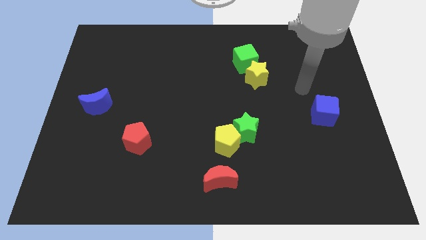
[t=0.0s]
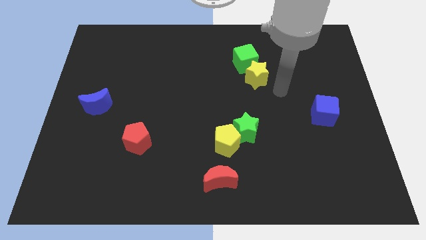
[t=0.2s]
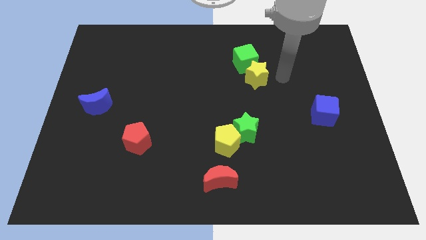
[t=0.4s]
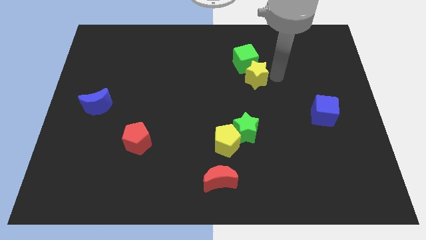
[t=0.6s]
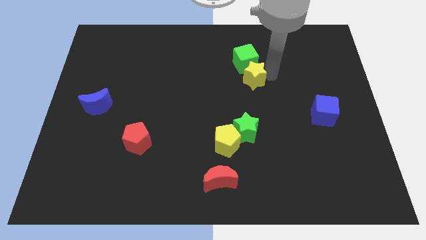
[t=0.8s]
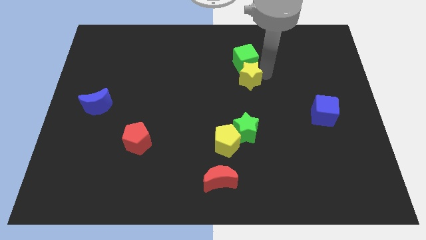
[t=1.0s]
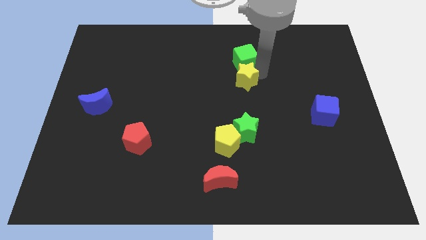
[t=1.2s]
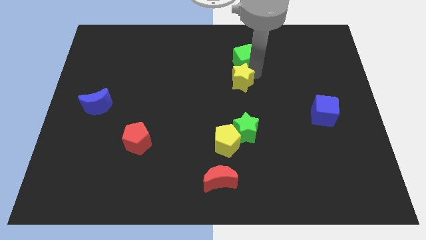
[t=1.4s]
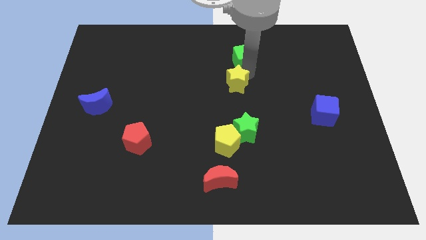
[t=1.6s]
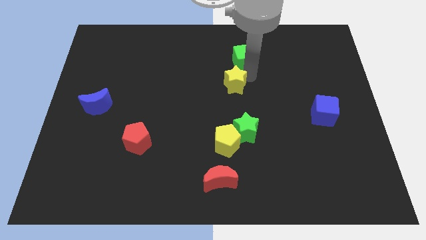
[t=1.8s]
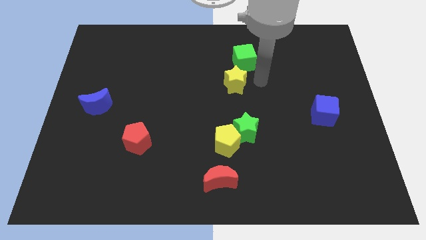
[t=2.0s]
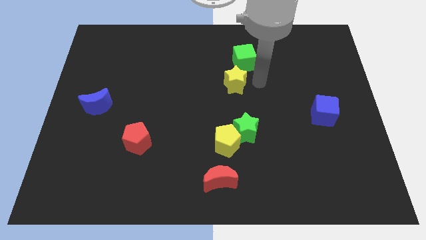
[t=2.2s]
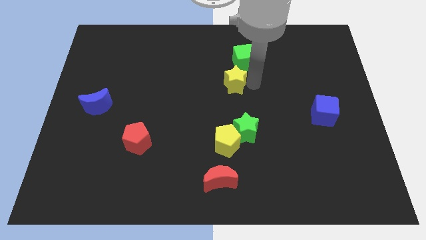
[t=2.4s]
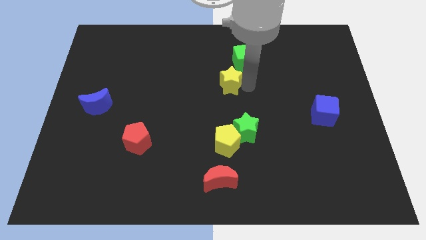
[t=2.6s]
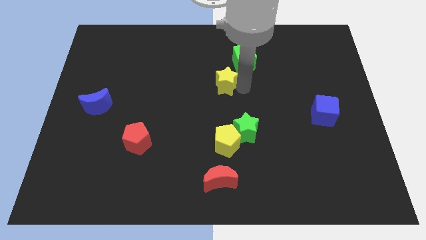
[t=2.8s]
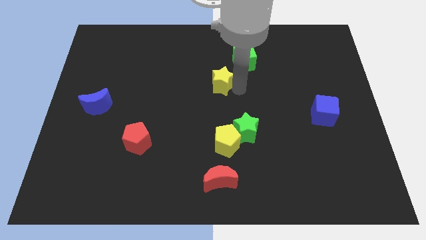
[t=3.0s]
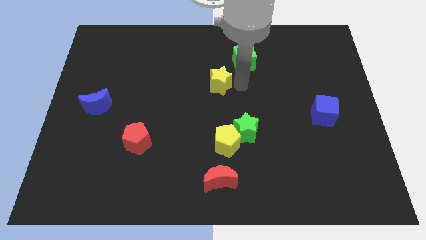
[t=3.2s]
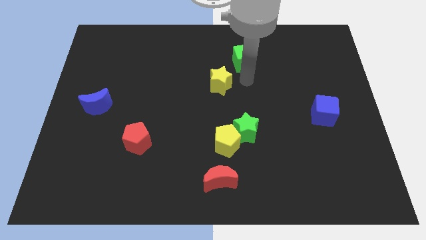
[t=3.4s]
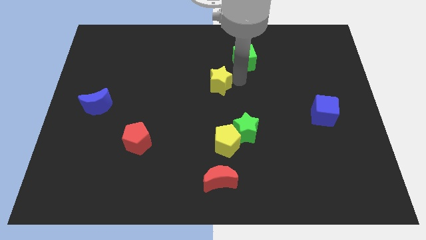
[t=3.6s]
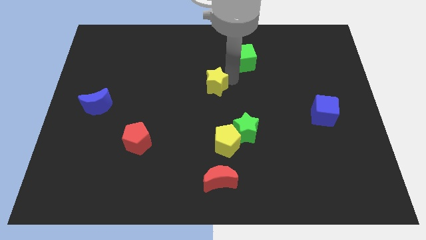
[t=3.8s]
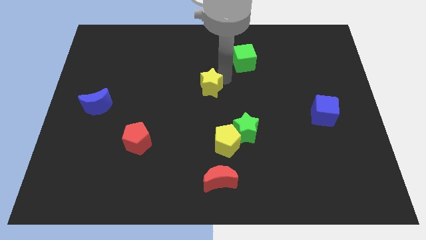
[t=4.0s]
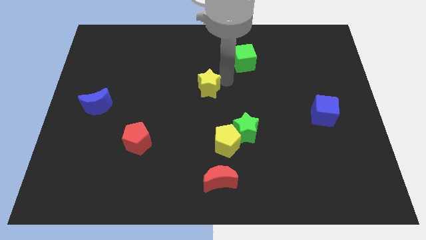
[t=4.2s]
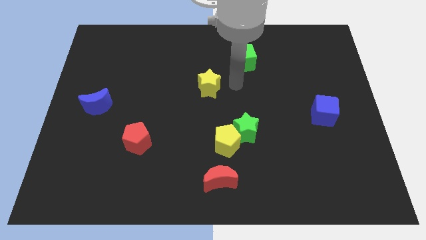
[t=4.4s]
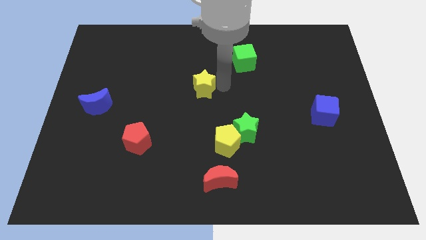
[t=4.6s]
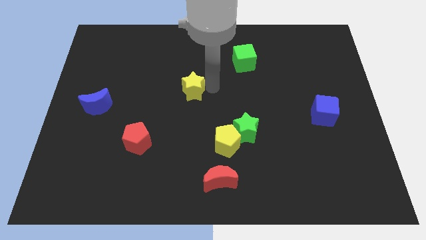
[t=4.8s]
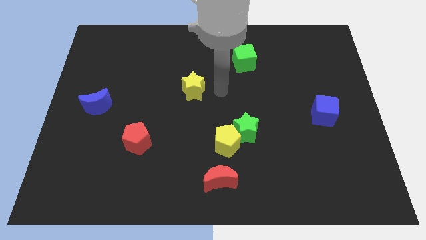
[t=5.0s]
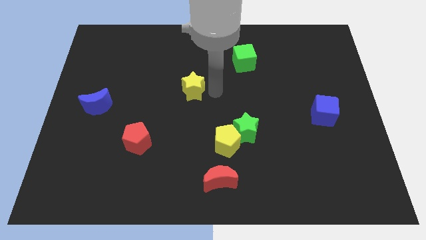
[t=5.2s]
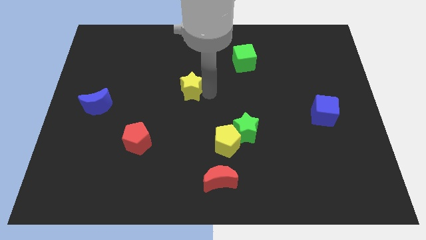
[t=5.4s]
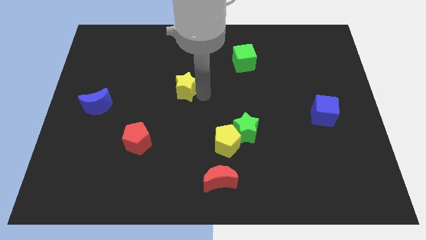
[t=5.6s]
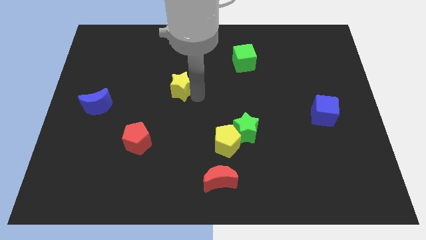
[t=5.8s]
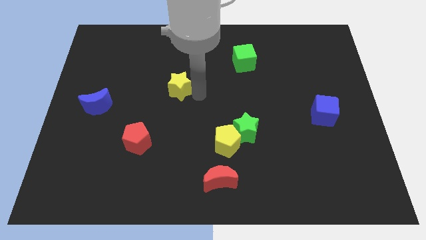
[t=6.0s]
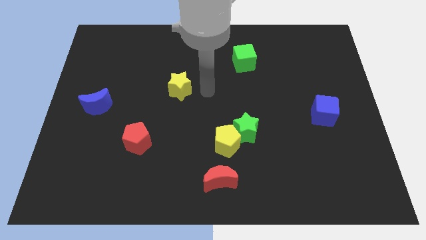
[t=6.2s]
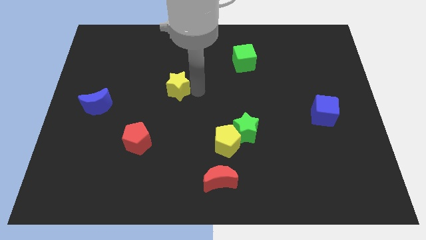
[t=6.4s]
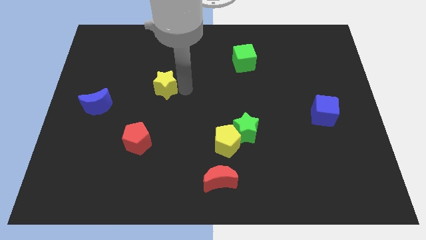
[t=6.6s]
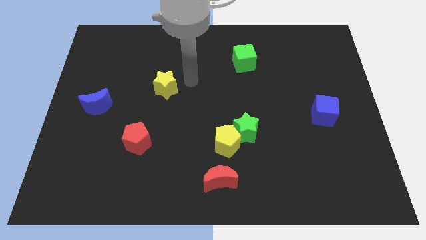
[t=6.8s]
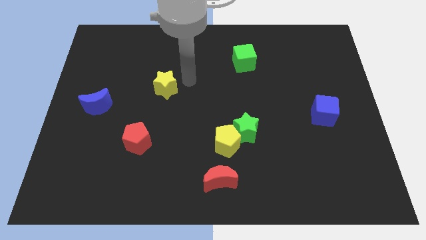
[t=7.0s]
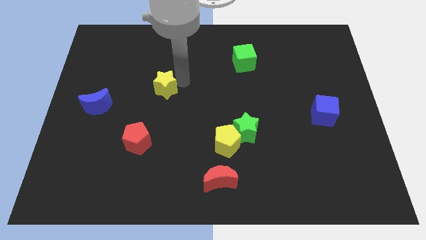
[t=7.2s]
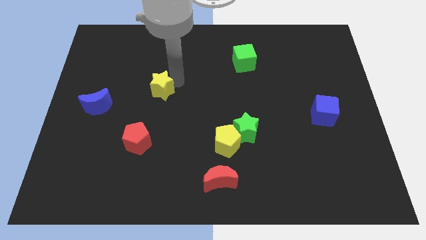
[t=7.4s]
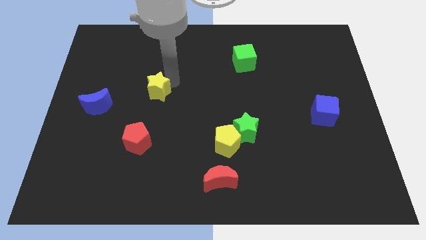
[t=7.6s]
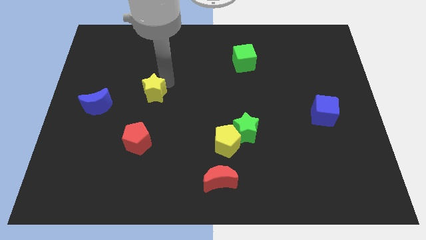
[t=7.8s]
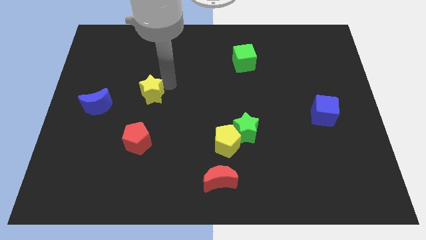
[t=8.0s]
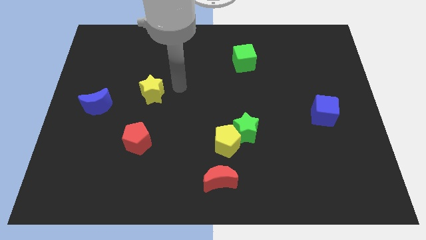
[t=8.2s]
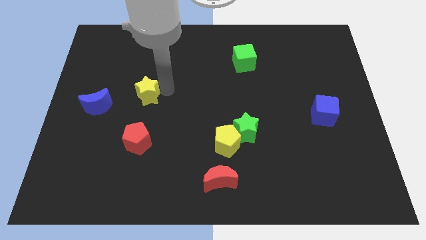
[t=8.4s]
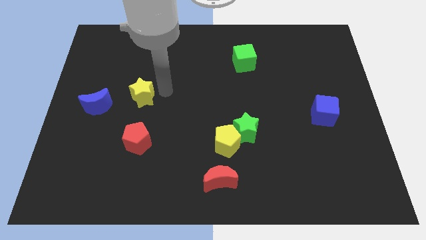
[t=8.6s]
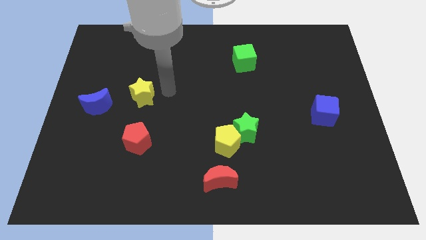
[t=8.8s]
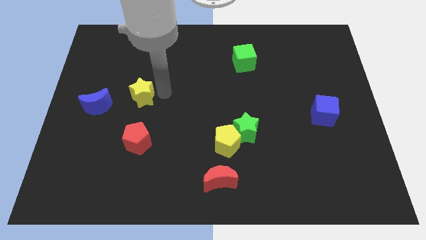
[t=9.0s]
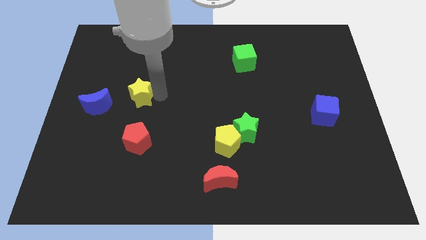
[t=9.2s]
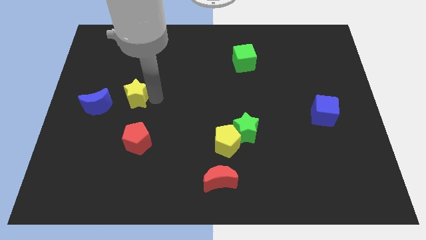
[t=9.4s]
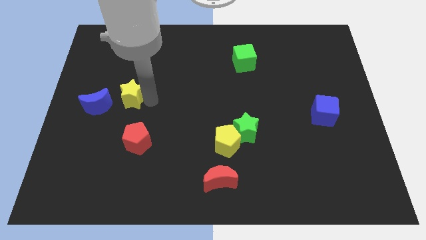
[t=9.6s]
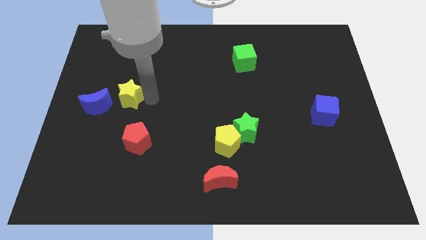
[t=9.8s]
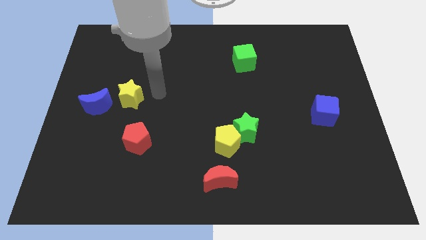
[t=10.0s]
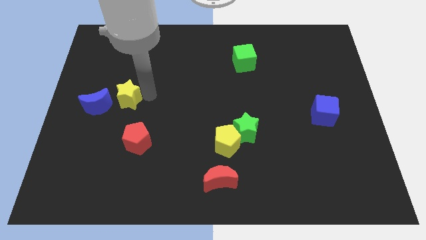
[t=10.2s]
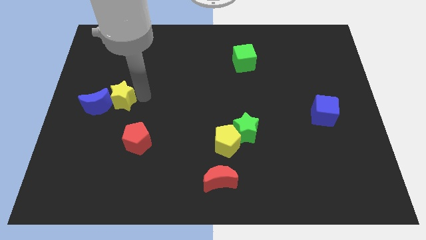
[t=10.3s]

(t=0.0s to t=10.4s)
put the yellow star towards the blue moon

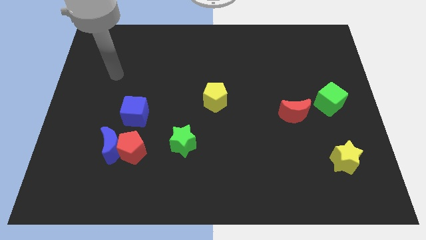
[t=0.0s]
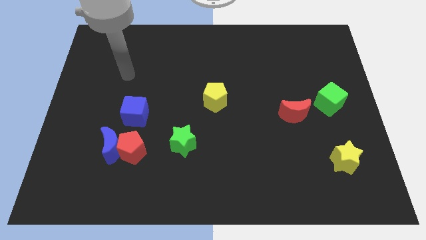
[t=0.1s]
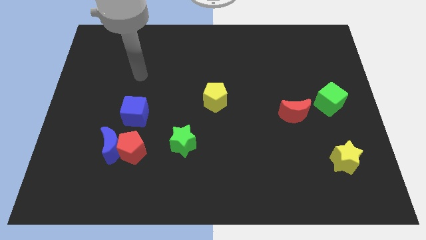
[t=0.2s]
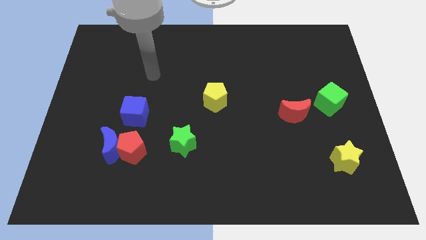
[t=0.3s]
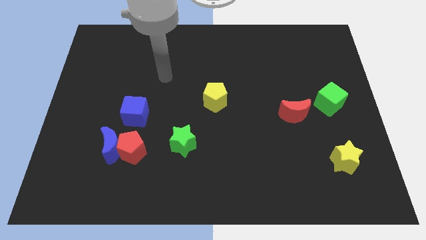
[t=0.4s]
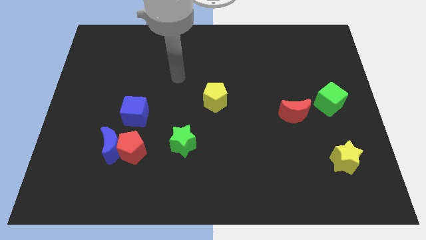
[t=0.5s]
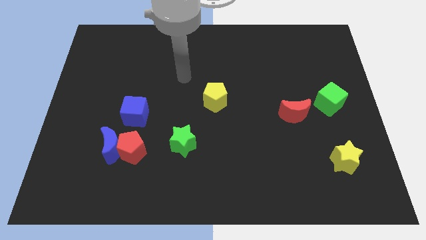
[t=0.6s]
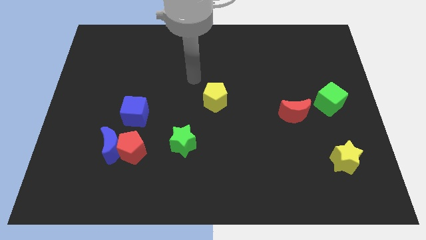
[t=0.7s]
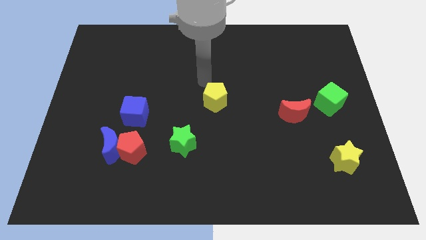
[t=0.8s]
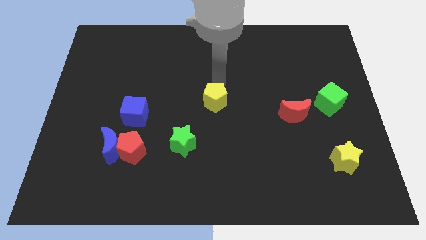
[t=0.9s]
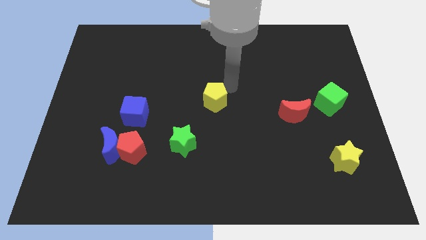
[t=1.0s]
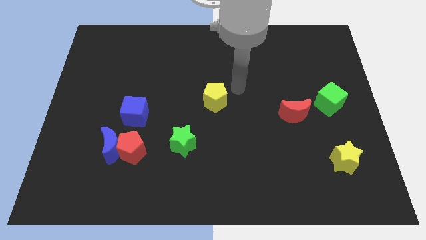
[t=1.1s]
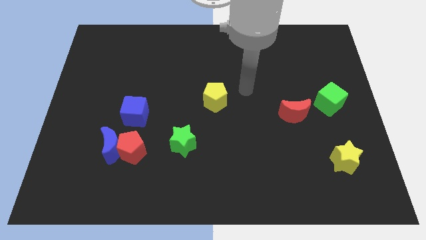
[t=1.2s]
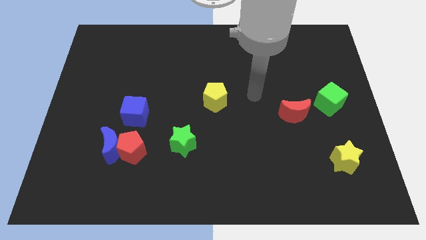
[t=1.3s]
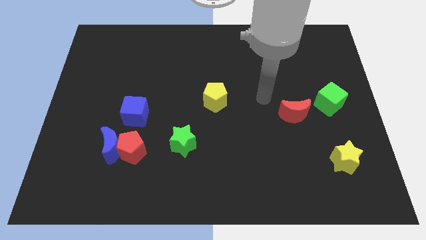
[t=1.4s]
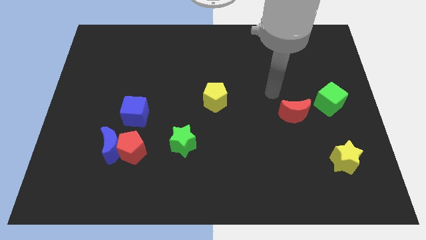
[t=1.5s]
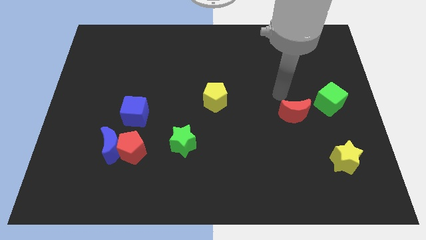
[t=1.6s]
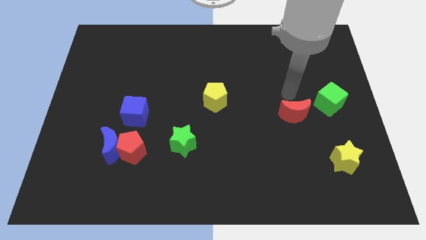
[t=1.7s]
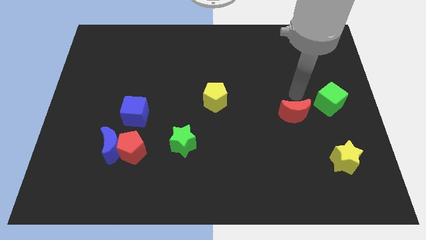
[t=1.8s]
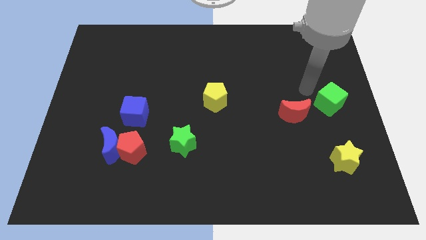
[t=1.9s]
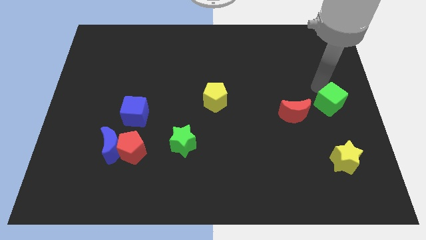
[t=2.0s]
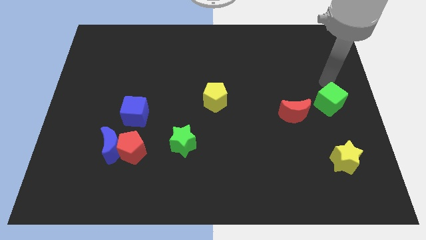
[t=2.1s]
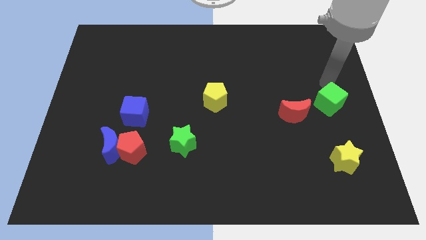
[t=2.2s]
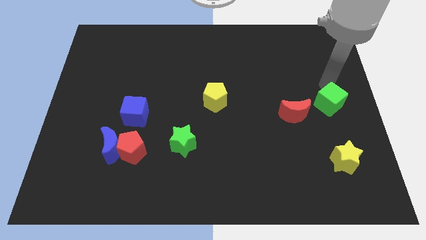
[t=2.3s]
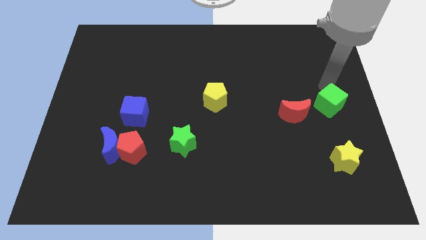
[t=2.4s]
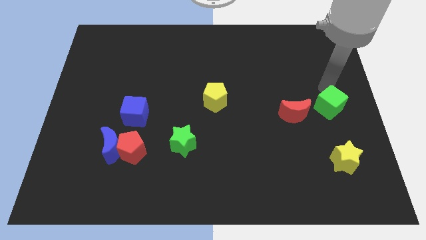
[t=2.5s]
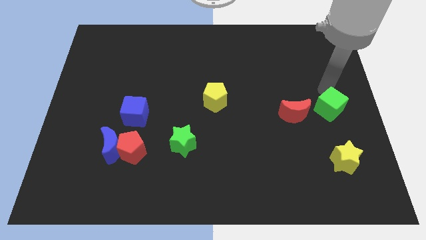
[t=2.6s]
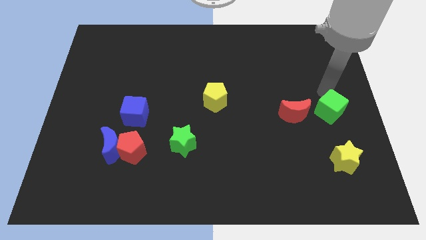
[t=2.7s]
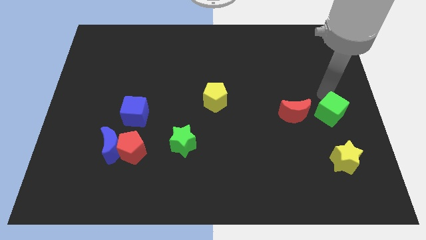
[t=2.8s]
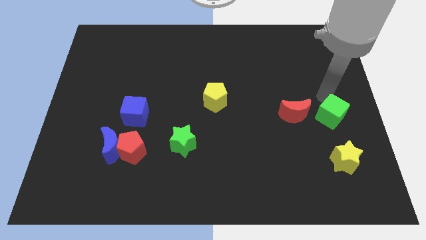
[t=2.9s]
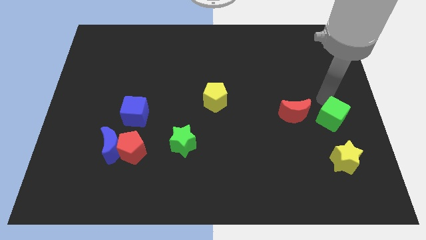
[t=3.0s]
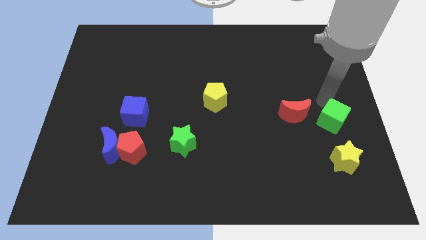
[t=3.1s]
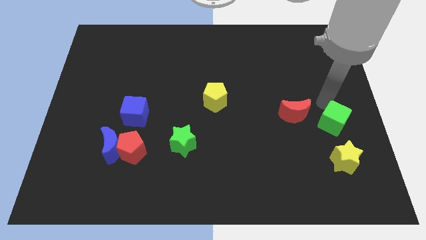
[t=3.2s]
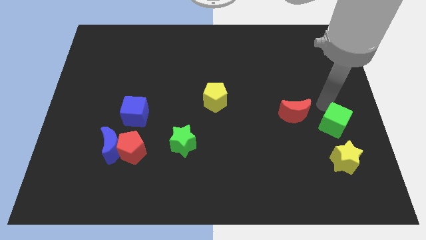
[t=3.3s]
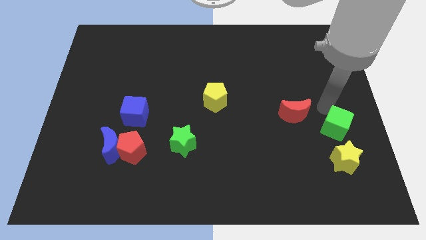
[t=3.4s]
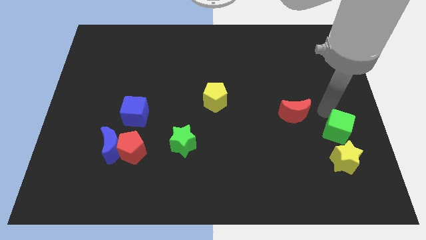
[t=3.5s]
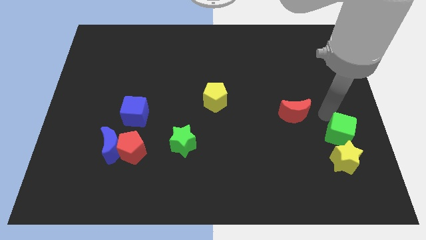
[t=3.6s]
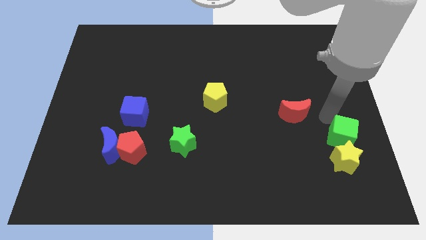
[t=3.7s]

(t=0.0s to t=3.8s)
push the green cube to the yellow star
